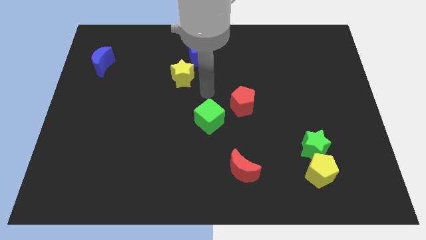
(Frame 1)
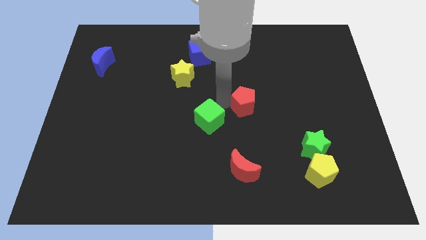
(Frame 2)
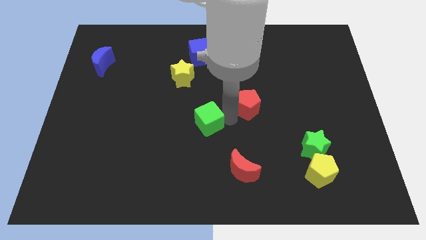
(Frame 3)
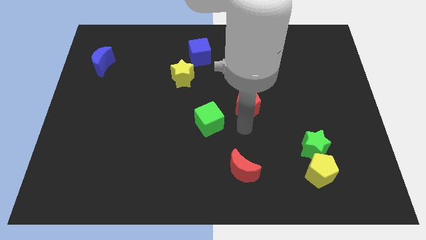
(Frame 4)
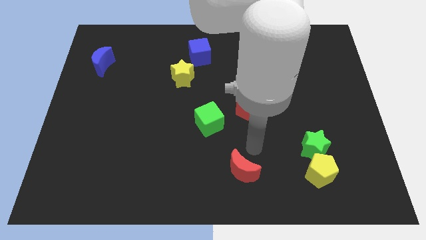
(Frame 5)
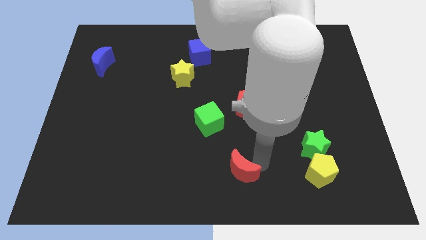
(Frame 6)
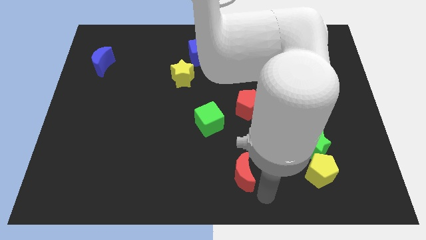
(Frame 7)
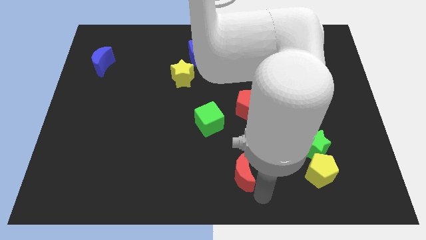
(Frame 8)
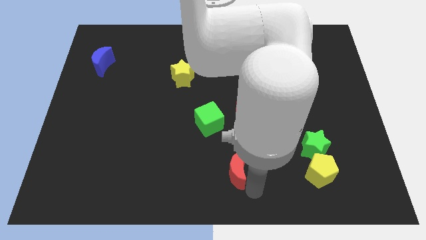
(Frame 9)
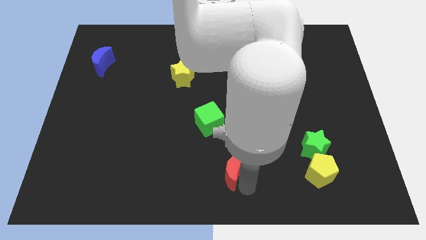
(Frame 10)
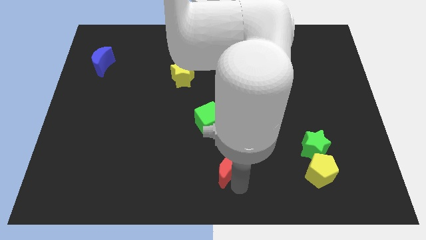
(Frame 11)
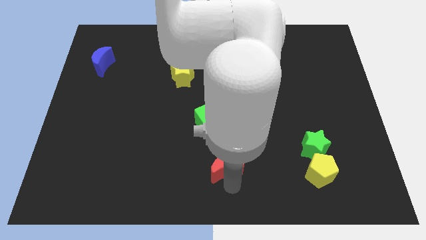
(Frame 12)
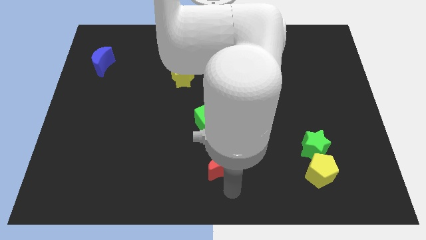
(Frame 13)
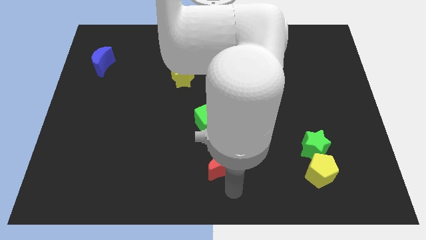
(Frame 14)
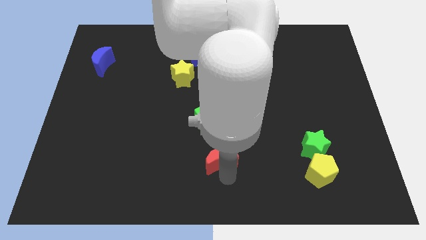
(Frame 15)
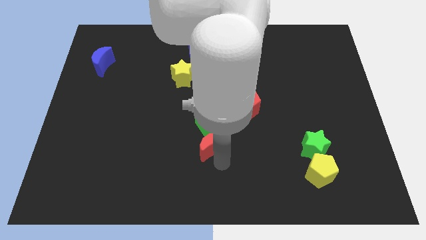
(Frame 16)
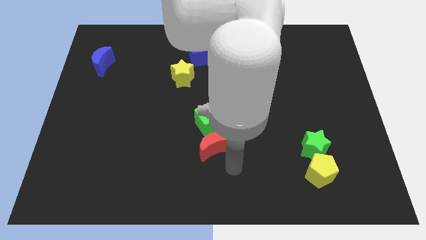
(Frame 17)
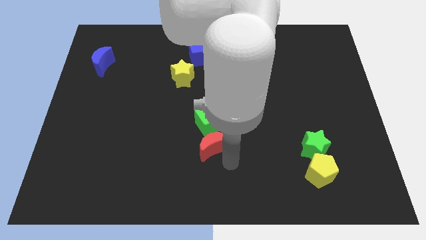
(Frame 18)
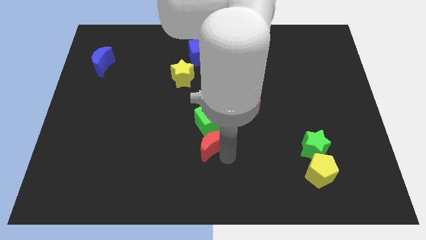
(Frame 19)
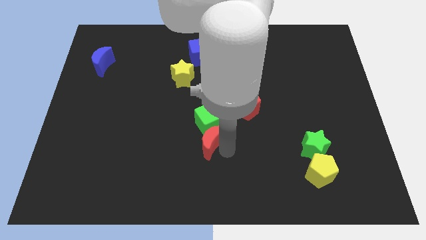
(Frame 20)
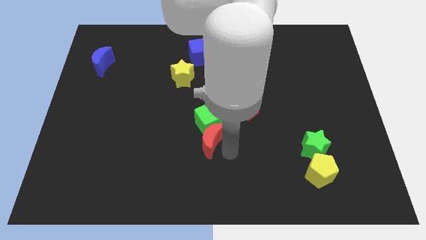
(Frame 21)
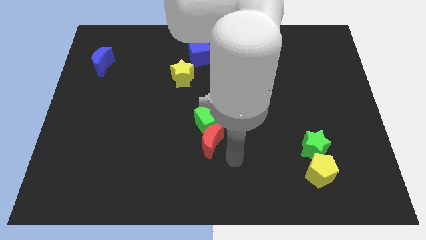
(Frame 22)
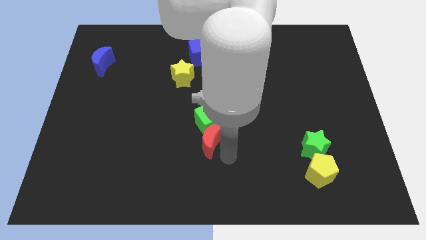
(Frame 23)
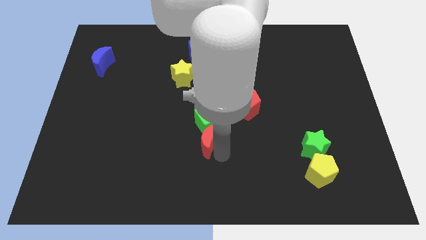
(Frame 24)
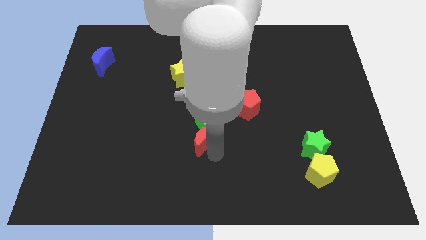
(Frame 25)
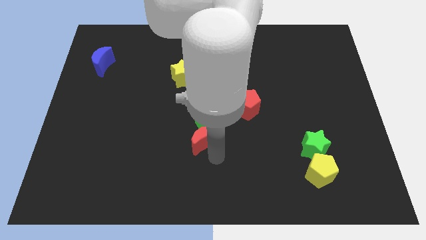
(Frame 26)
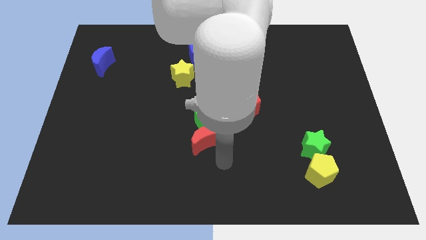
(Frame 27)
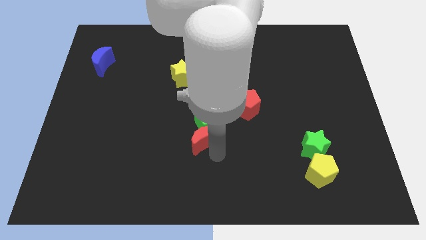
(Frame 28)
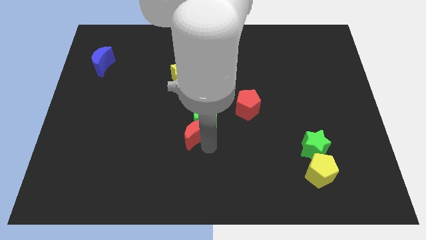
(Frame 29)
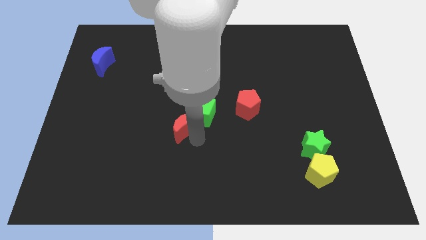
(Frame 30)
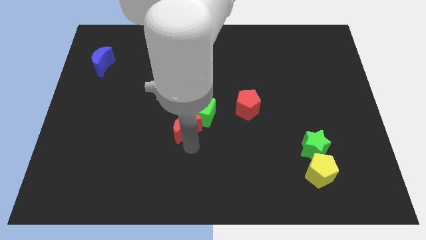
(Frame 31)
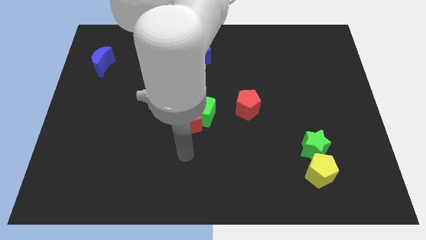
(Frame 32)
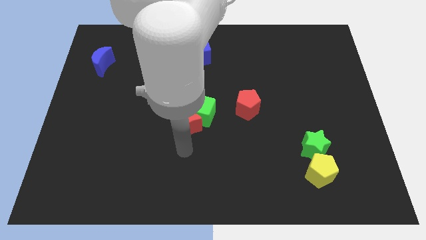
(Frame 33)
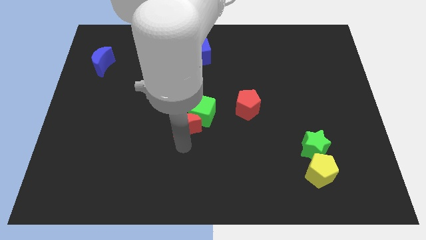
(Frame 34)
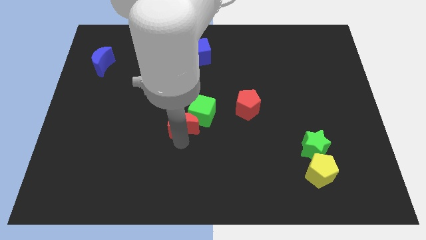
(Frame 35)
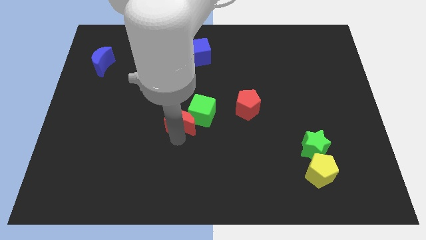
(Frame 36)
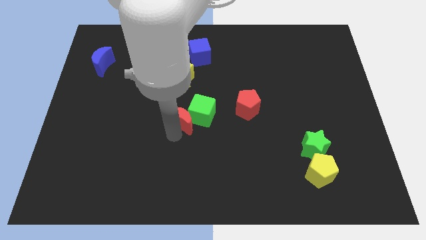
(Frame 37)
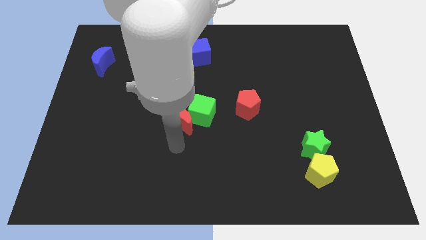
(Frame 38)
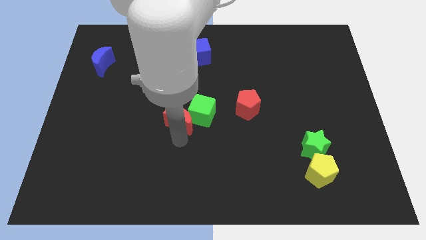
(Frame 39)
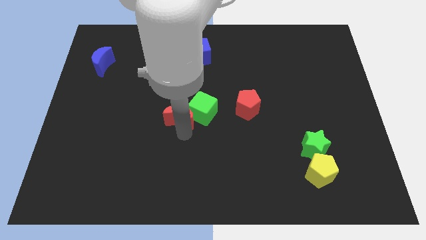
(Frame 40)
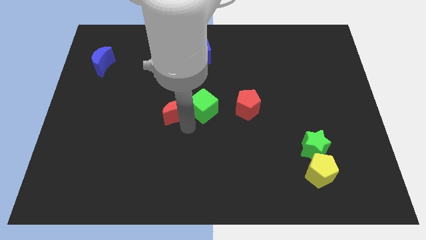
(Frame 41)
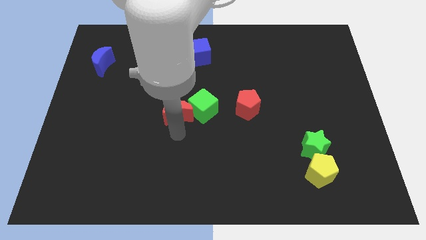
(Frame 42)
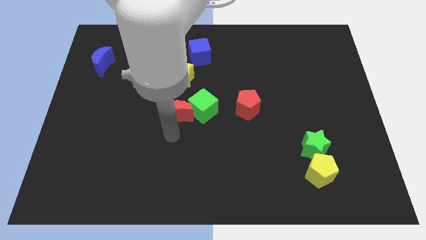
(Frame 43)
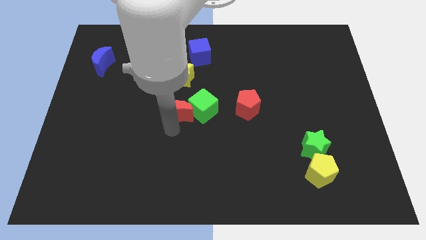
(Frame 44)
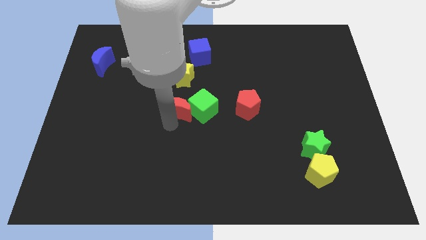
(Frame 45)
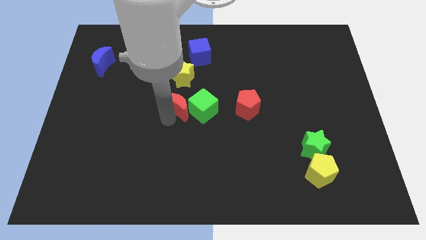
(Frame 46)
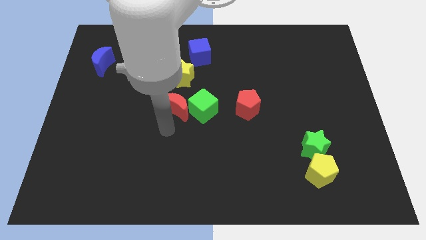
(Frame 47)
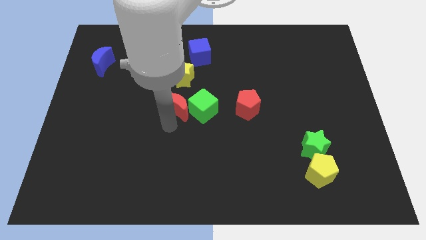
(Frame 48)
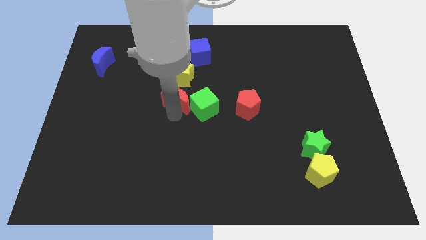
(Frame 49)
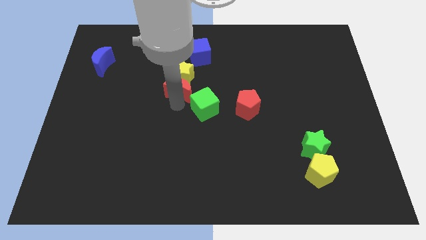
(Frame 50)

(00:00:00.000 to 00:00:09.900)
push the red moon to the yellow star
